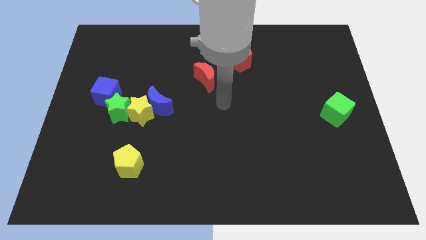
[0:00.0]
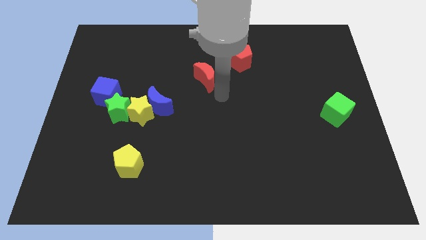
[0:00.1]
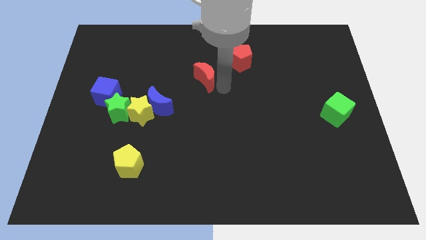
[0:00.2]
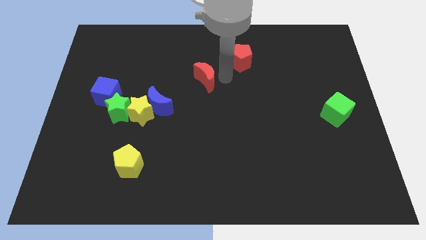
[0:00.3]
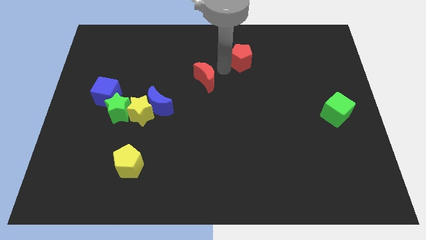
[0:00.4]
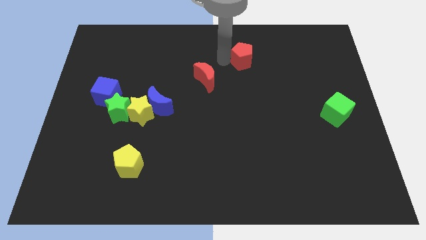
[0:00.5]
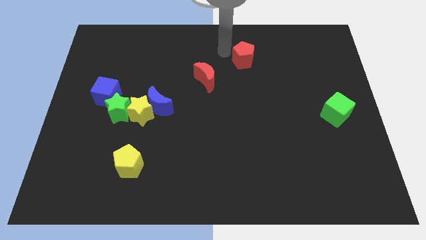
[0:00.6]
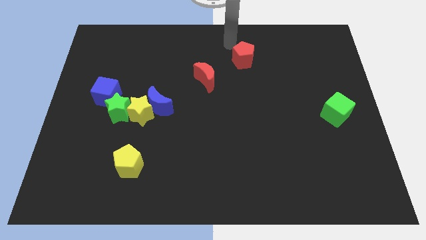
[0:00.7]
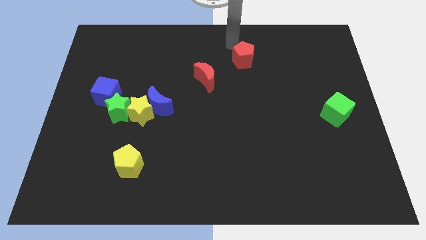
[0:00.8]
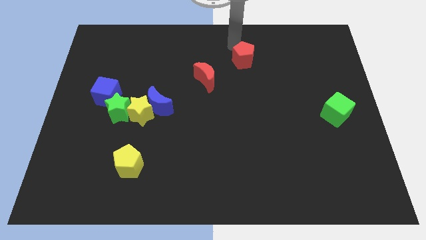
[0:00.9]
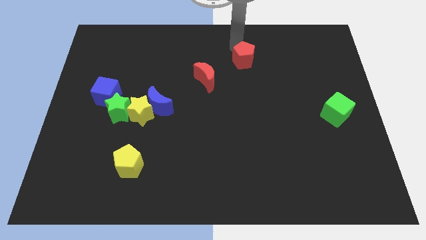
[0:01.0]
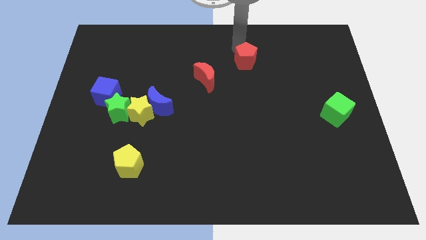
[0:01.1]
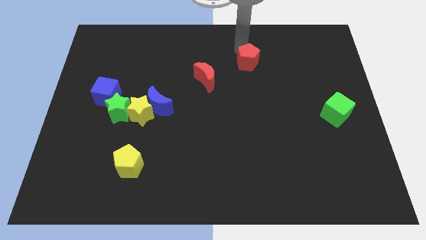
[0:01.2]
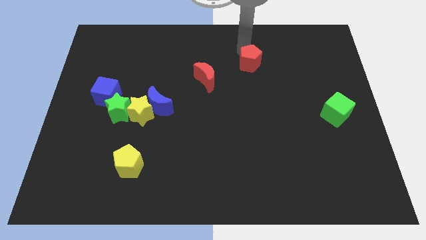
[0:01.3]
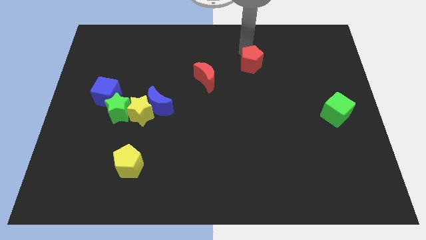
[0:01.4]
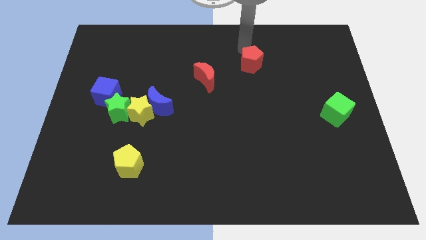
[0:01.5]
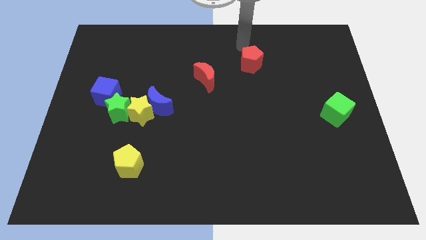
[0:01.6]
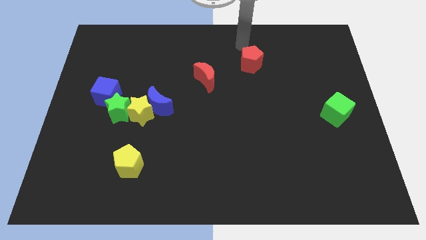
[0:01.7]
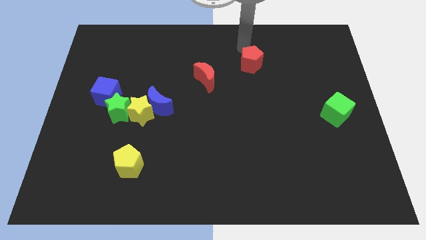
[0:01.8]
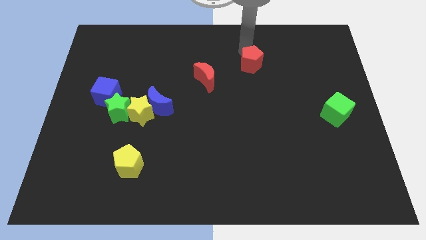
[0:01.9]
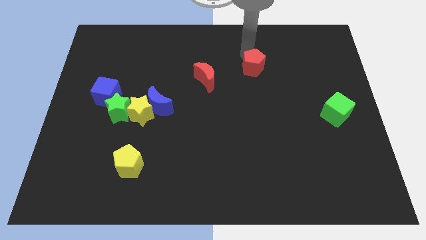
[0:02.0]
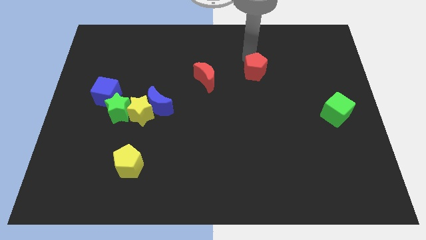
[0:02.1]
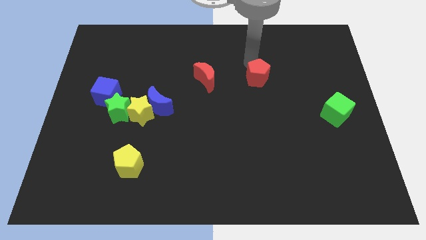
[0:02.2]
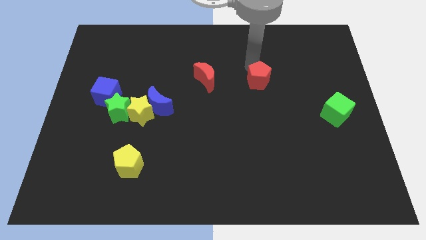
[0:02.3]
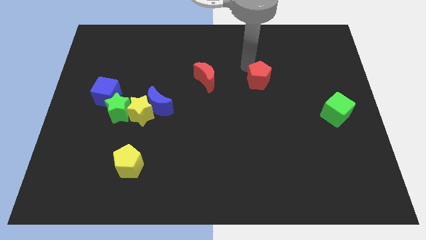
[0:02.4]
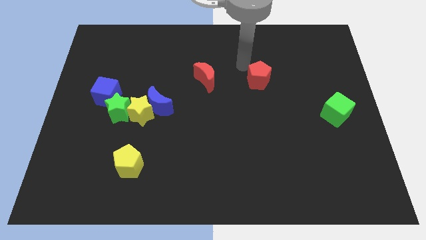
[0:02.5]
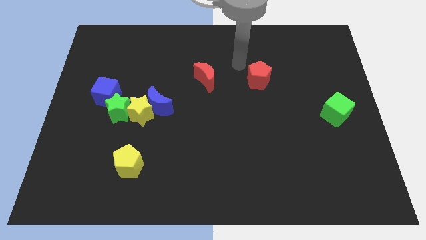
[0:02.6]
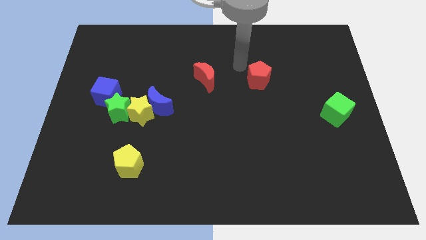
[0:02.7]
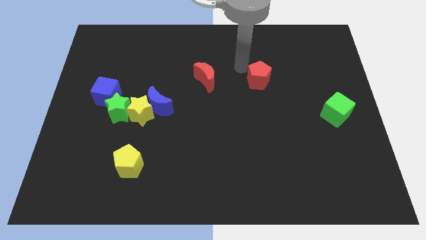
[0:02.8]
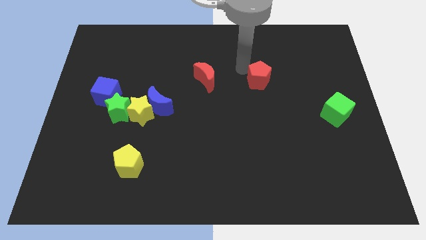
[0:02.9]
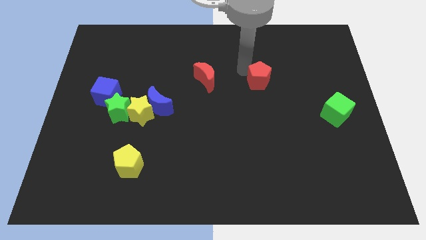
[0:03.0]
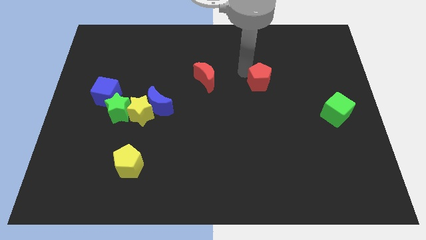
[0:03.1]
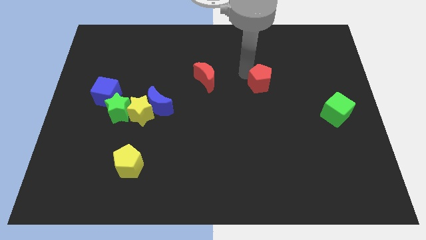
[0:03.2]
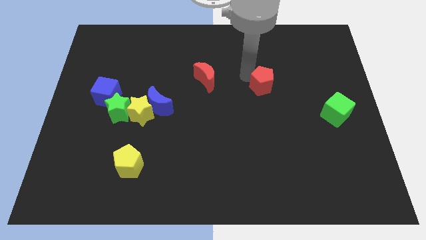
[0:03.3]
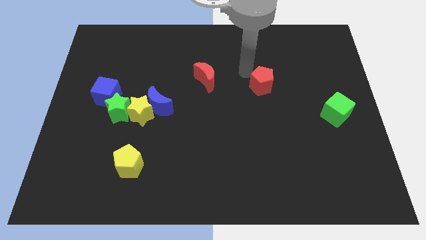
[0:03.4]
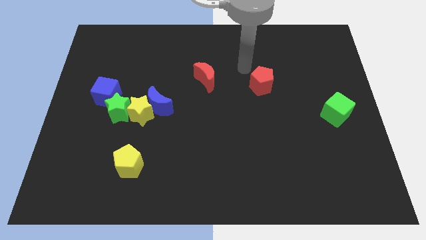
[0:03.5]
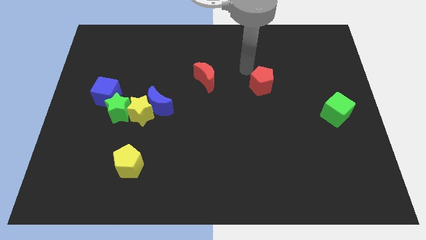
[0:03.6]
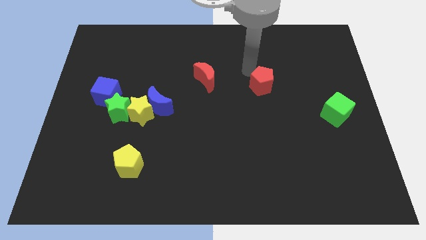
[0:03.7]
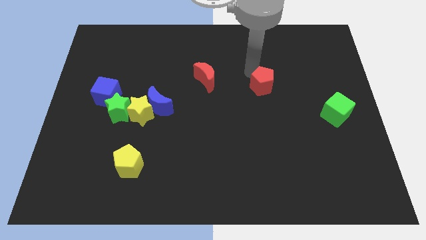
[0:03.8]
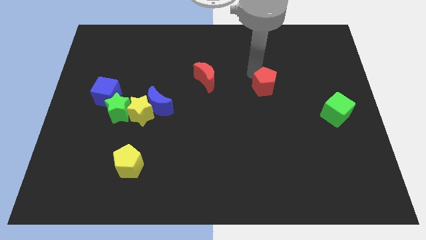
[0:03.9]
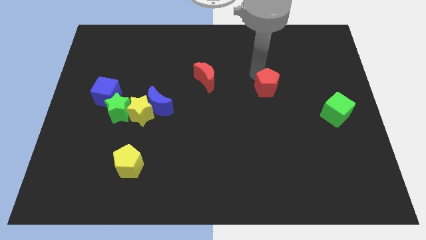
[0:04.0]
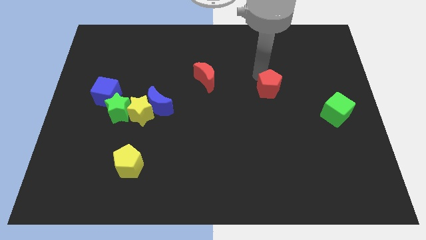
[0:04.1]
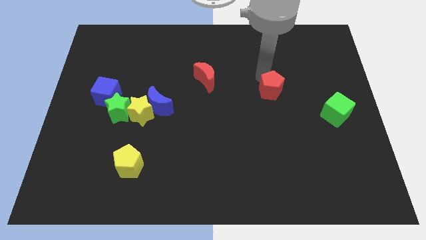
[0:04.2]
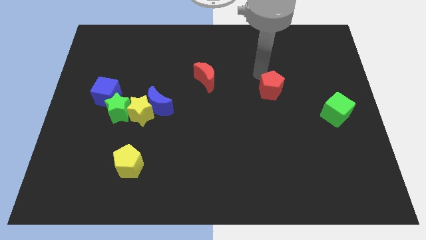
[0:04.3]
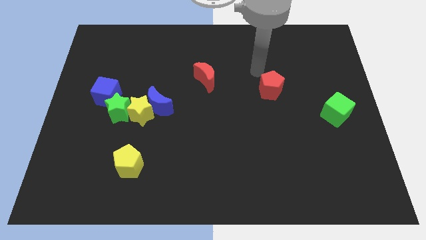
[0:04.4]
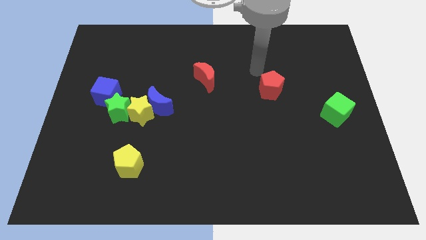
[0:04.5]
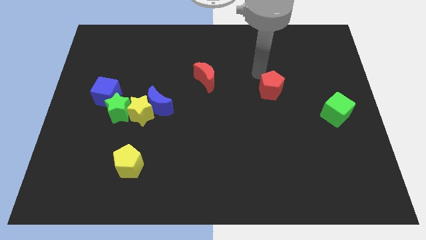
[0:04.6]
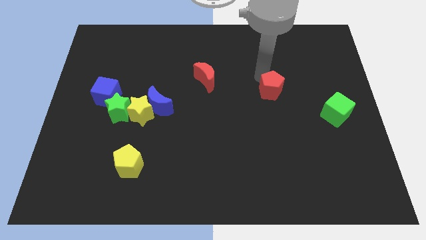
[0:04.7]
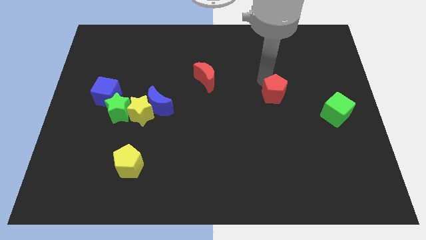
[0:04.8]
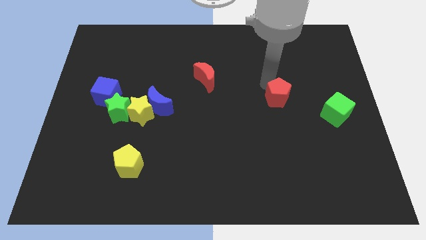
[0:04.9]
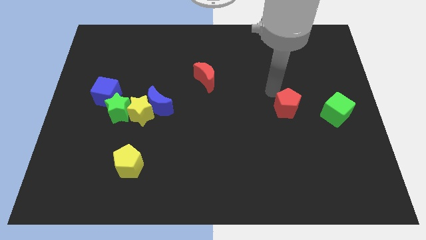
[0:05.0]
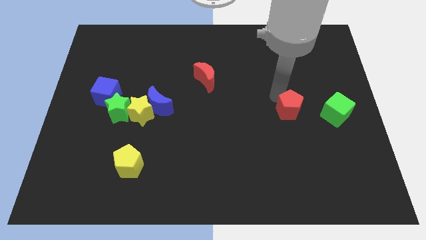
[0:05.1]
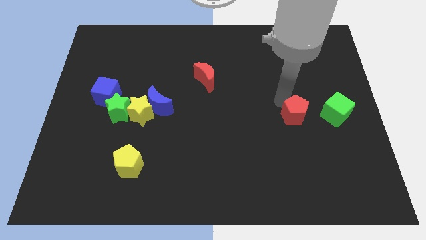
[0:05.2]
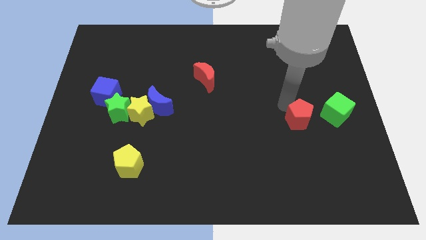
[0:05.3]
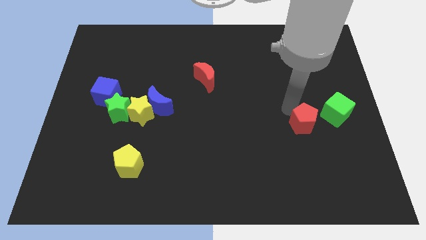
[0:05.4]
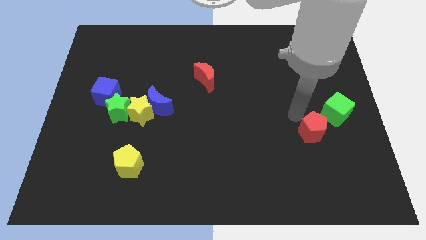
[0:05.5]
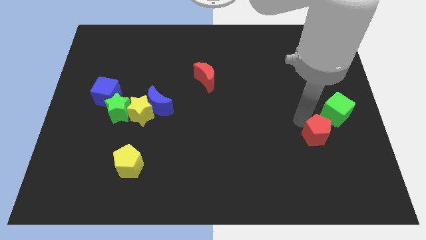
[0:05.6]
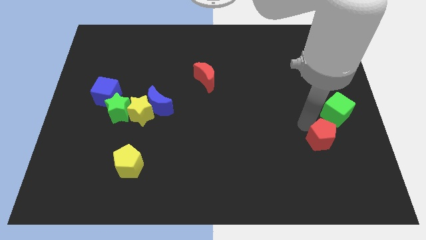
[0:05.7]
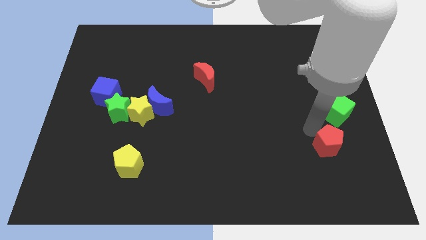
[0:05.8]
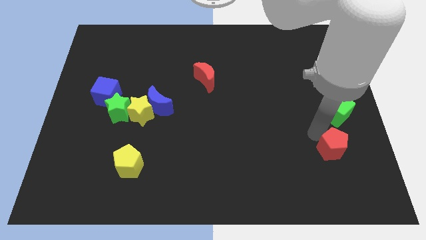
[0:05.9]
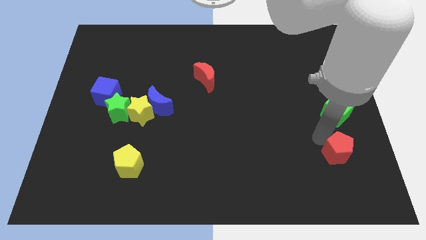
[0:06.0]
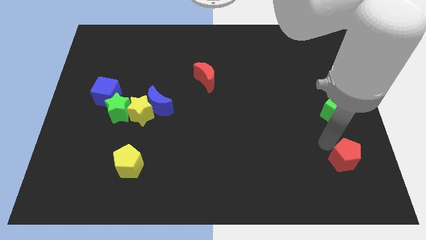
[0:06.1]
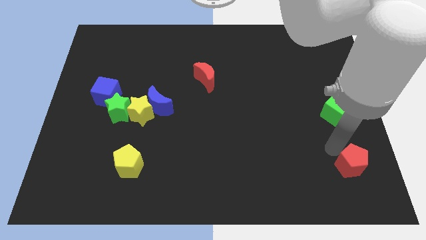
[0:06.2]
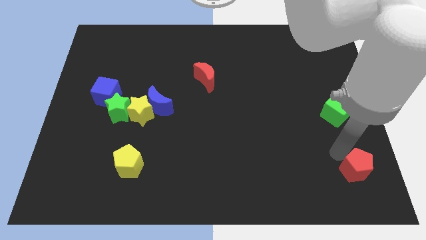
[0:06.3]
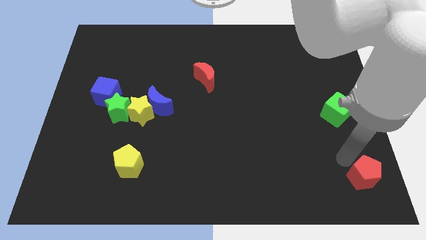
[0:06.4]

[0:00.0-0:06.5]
slide the red pentagon to the lower right corner

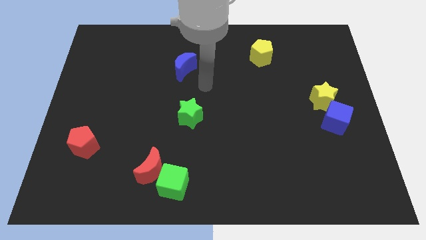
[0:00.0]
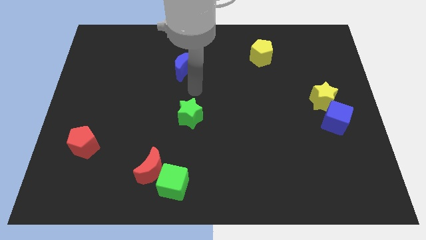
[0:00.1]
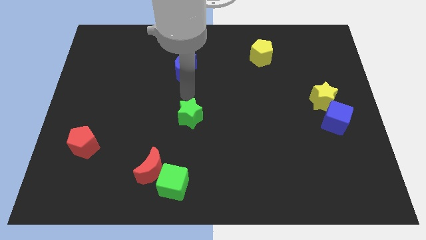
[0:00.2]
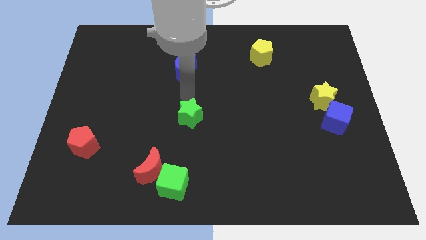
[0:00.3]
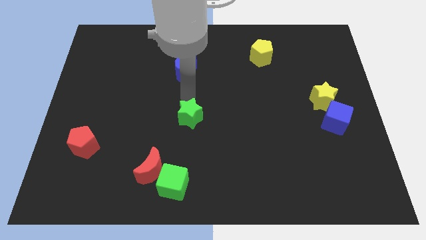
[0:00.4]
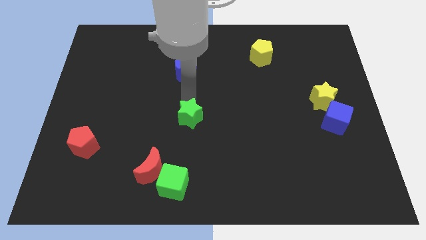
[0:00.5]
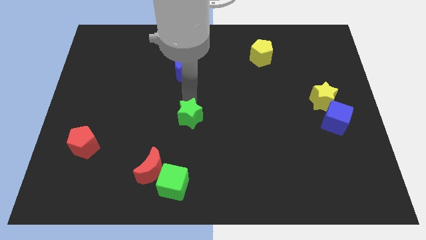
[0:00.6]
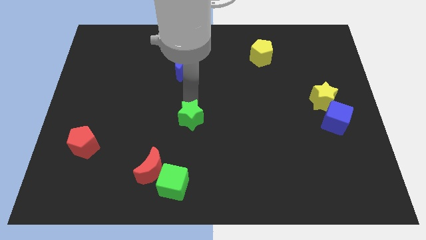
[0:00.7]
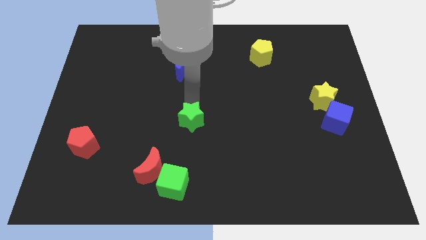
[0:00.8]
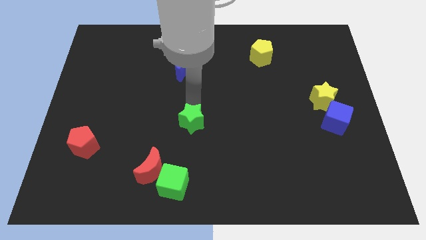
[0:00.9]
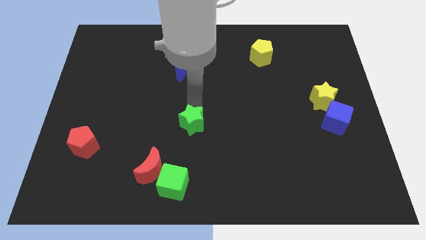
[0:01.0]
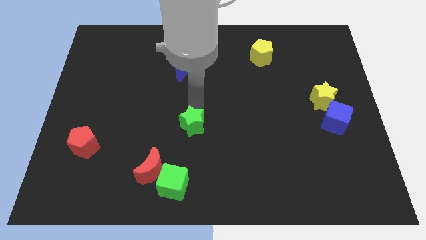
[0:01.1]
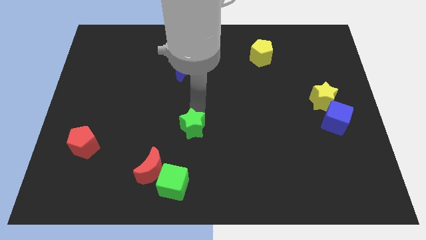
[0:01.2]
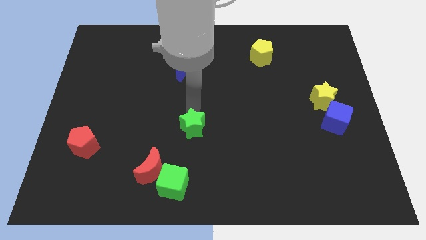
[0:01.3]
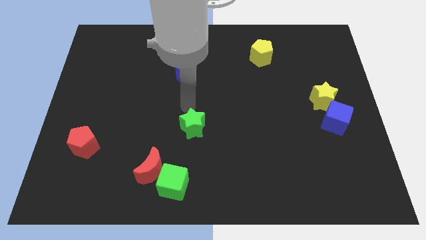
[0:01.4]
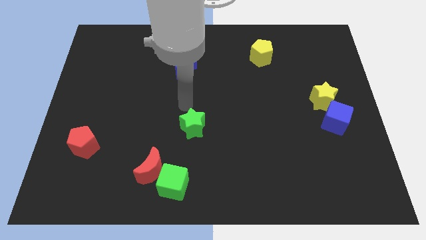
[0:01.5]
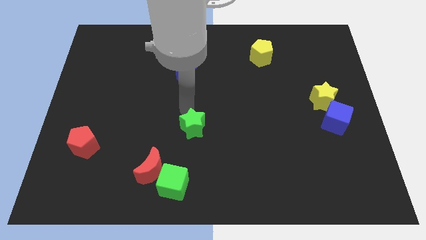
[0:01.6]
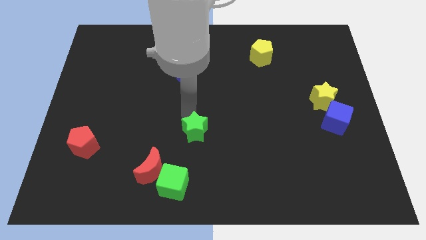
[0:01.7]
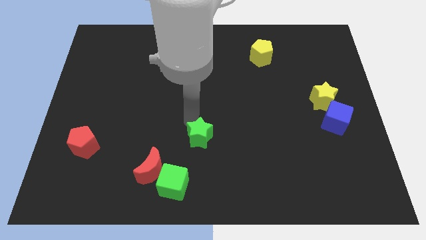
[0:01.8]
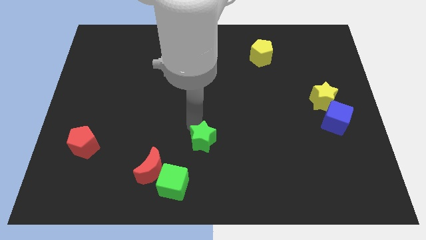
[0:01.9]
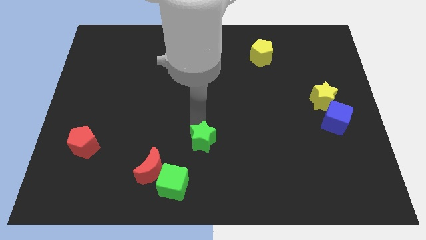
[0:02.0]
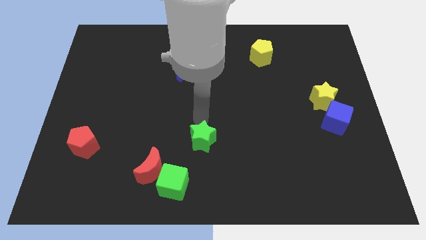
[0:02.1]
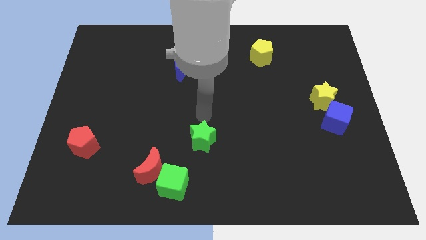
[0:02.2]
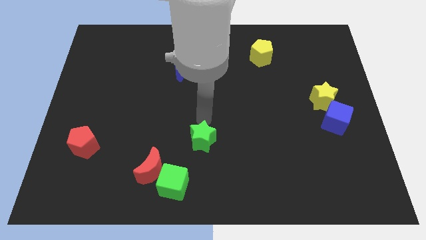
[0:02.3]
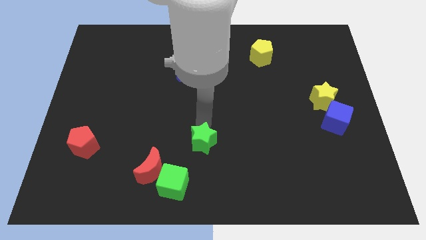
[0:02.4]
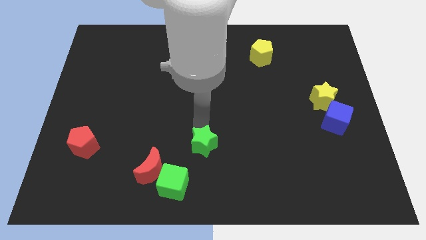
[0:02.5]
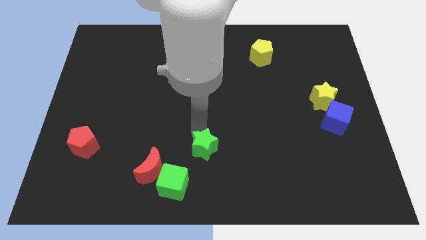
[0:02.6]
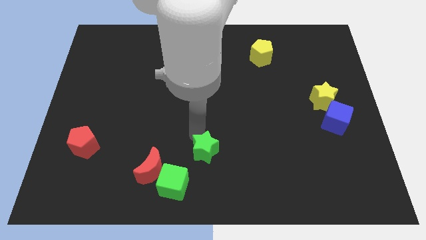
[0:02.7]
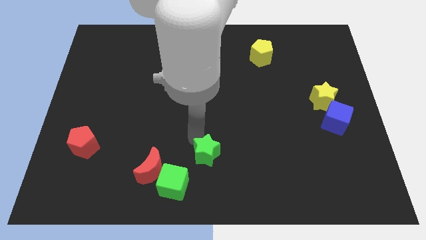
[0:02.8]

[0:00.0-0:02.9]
push the green star to the bottom
